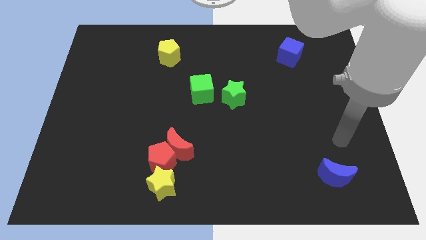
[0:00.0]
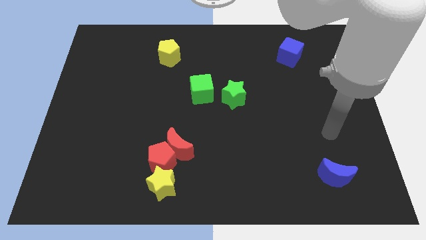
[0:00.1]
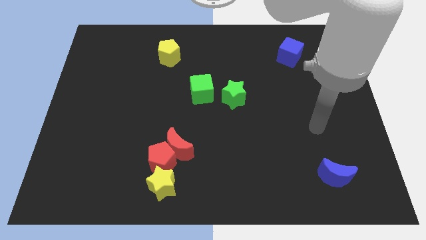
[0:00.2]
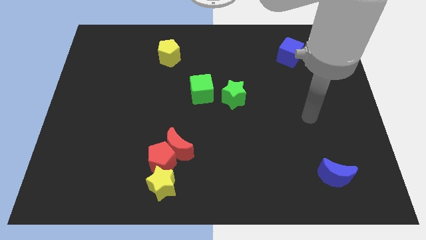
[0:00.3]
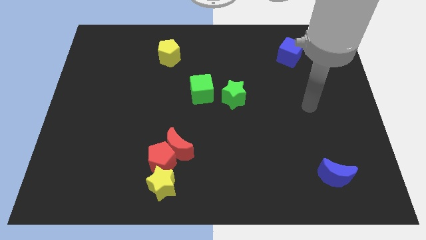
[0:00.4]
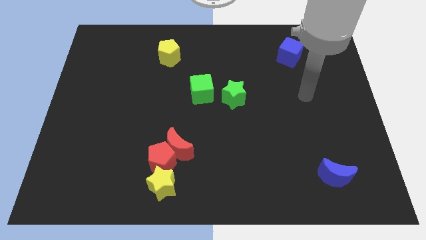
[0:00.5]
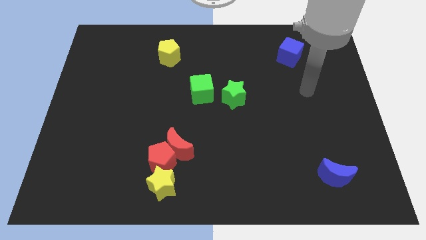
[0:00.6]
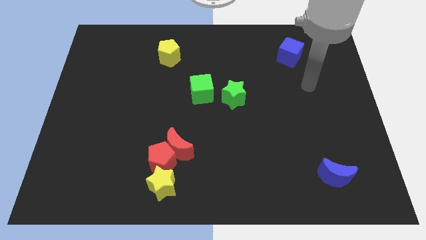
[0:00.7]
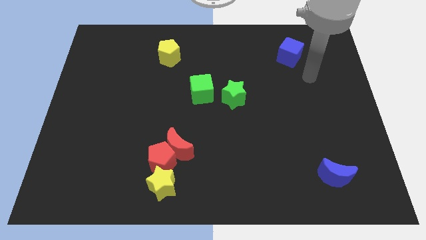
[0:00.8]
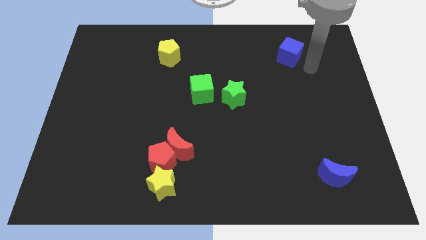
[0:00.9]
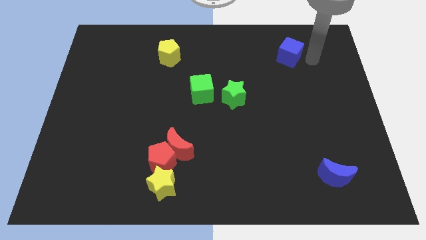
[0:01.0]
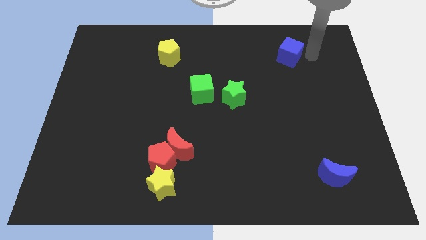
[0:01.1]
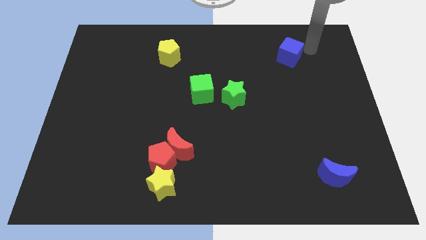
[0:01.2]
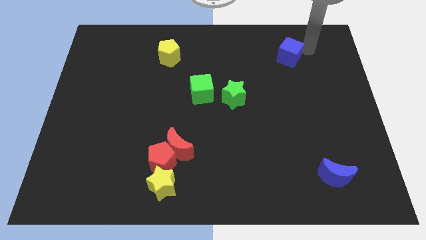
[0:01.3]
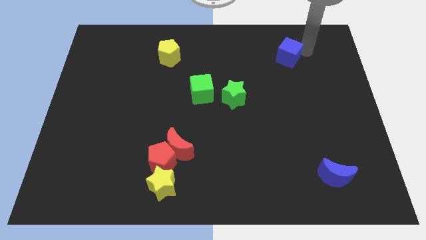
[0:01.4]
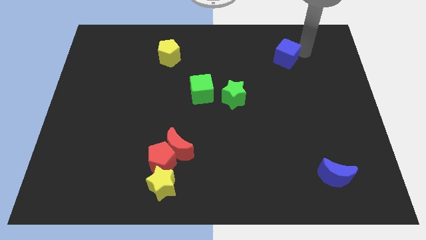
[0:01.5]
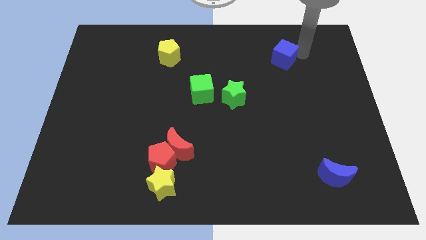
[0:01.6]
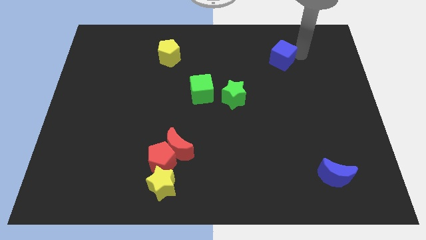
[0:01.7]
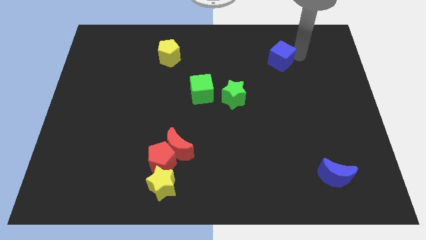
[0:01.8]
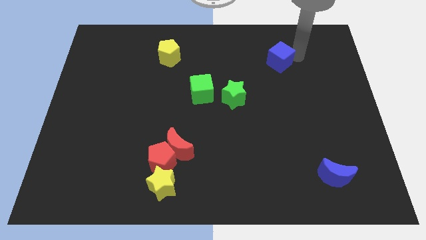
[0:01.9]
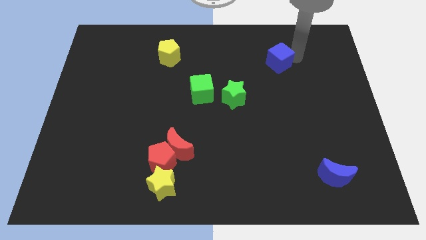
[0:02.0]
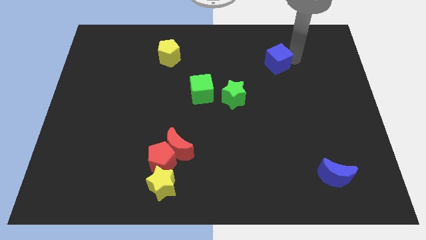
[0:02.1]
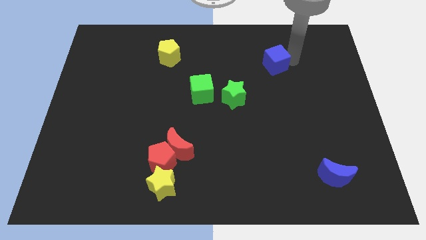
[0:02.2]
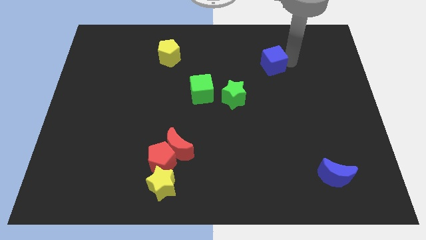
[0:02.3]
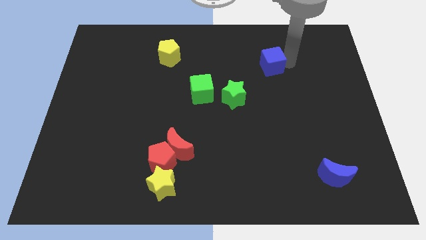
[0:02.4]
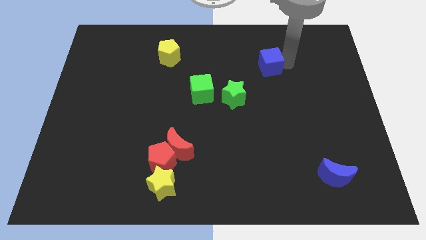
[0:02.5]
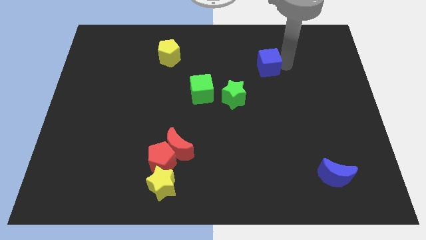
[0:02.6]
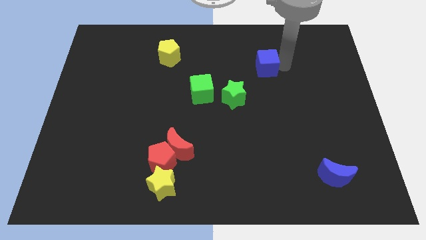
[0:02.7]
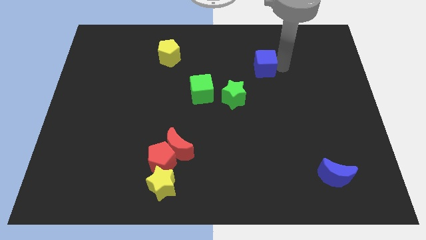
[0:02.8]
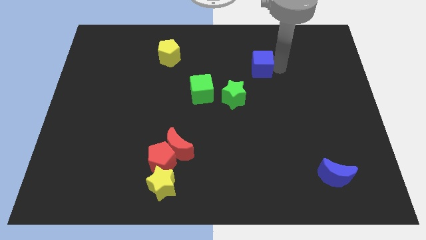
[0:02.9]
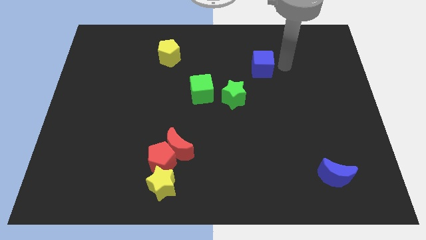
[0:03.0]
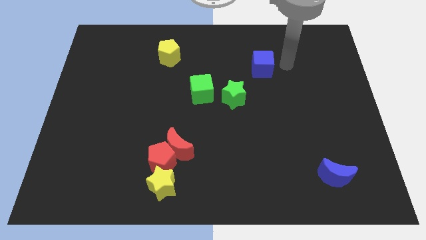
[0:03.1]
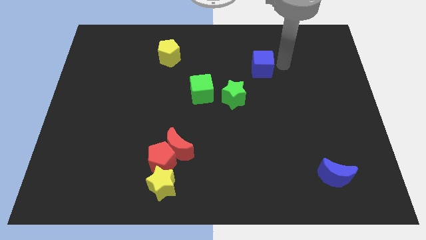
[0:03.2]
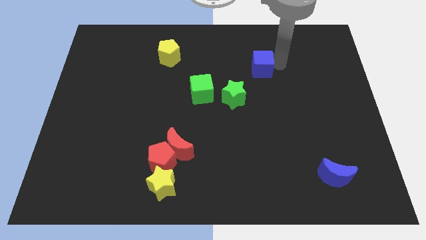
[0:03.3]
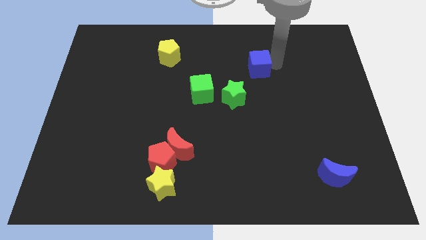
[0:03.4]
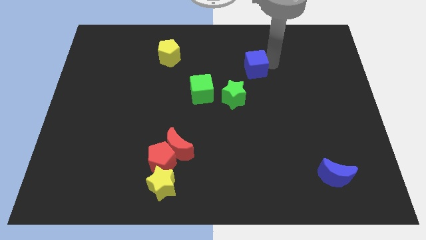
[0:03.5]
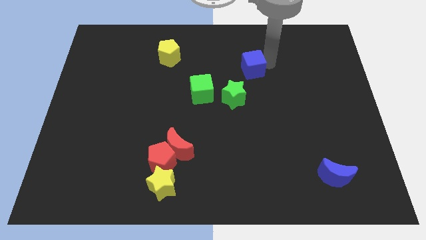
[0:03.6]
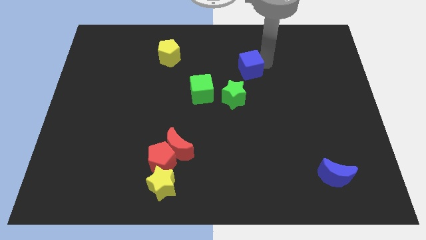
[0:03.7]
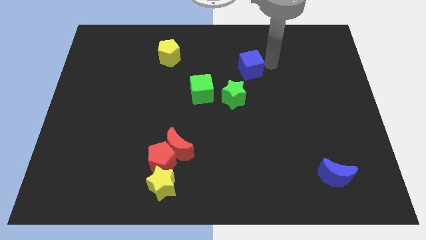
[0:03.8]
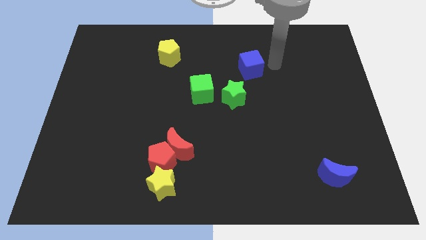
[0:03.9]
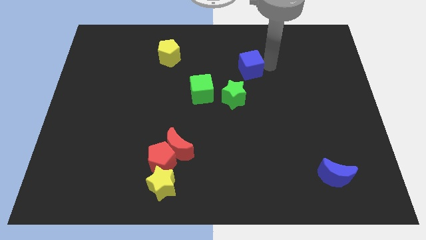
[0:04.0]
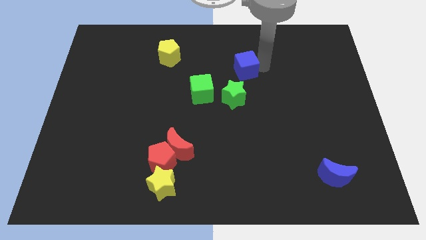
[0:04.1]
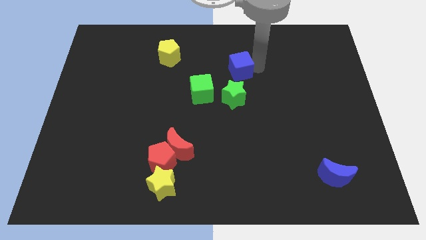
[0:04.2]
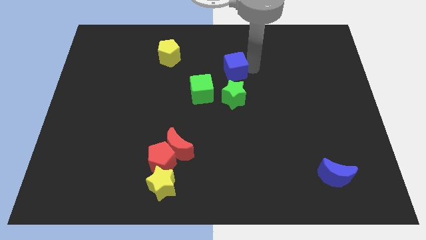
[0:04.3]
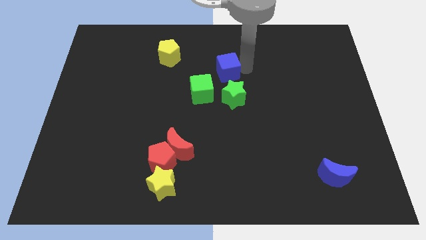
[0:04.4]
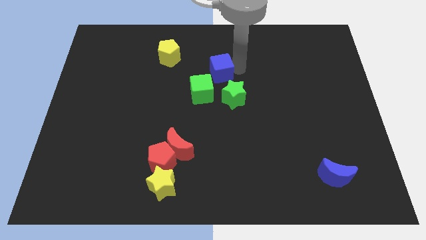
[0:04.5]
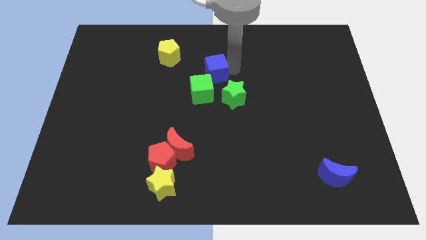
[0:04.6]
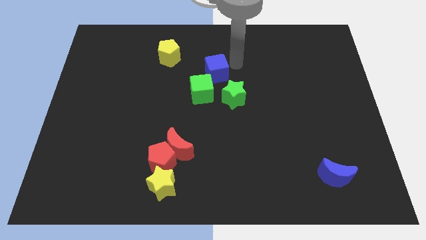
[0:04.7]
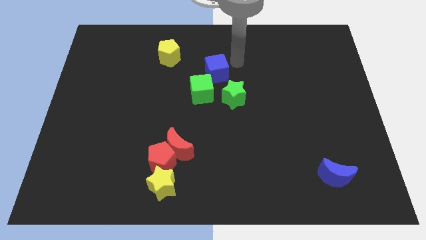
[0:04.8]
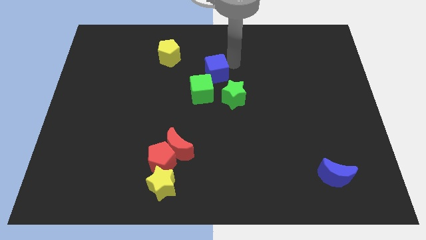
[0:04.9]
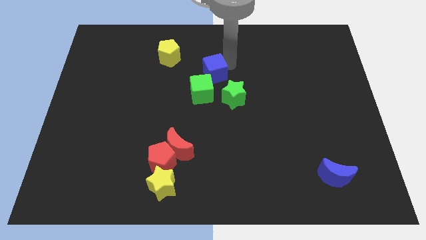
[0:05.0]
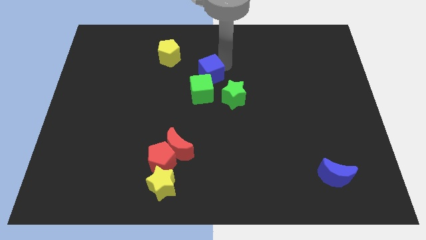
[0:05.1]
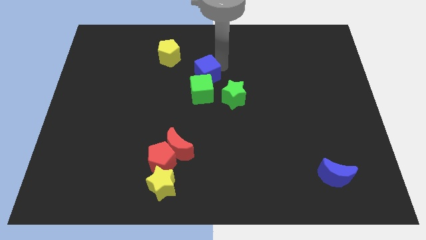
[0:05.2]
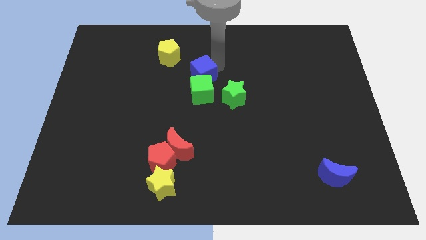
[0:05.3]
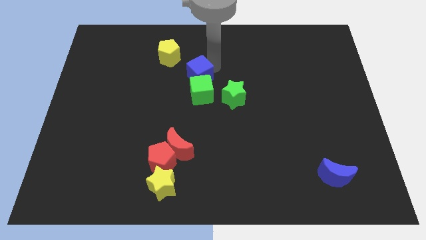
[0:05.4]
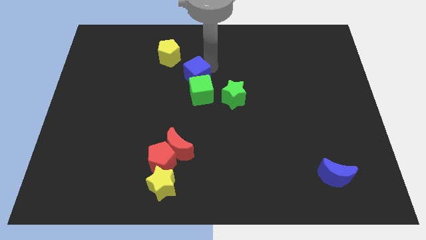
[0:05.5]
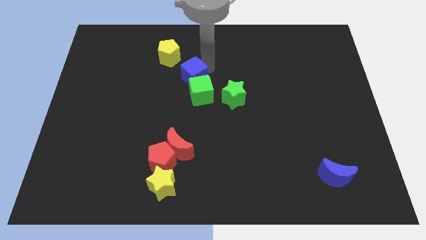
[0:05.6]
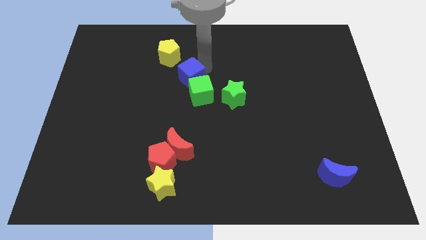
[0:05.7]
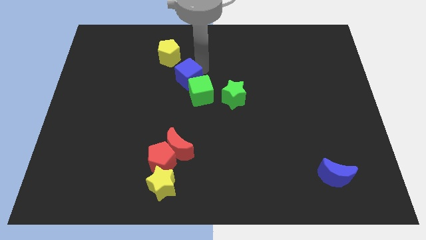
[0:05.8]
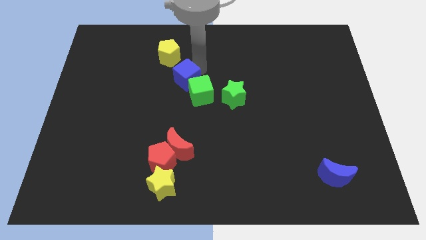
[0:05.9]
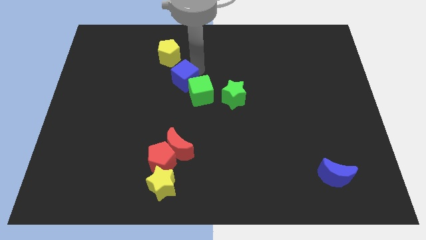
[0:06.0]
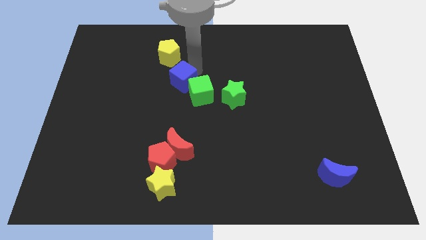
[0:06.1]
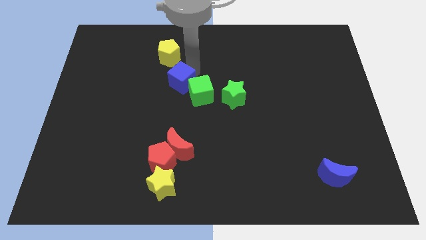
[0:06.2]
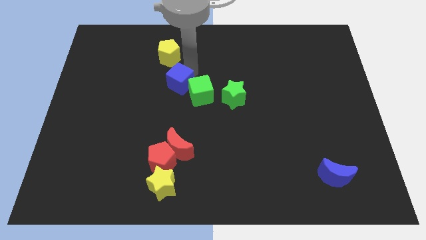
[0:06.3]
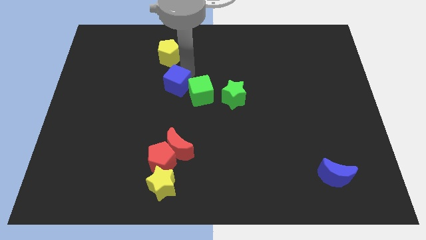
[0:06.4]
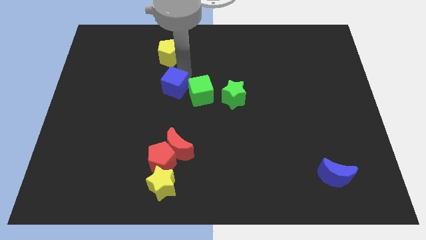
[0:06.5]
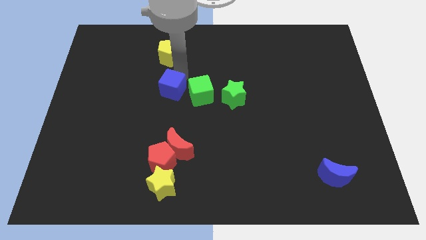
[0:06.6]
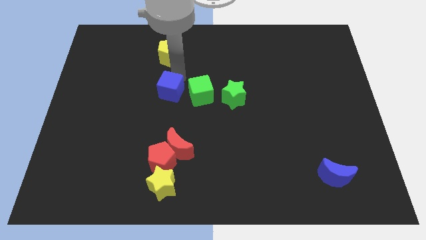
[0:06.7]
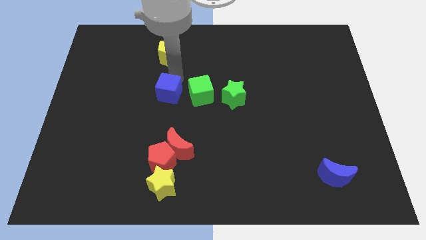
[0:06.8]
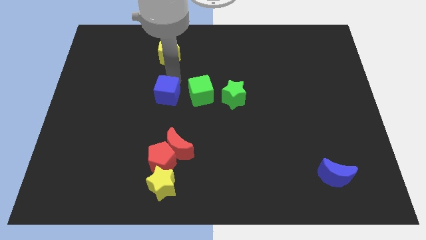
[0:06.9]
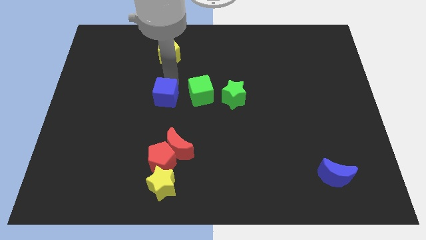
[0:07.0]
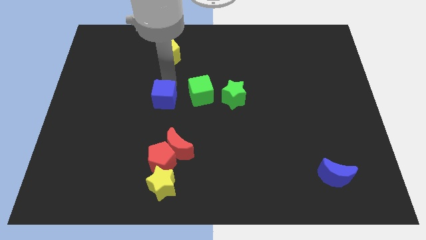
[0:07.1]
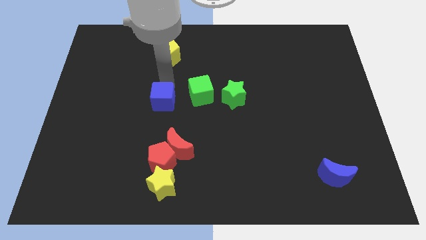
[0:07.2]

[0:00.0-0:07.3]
push the blue cube to the bottom left side of the green cube
